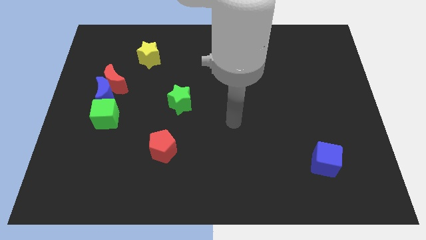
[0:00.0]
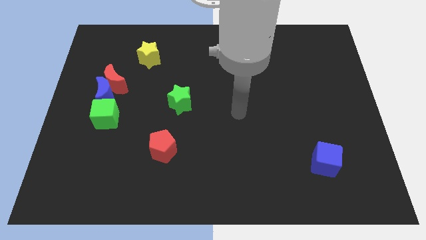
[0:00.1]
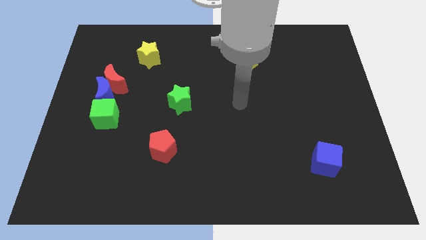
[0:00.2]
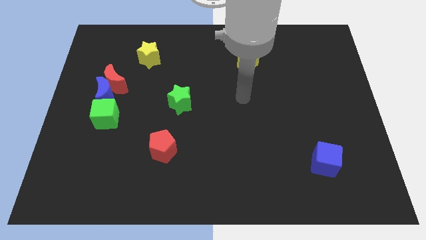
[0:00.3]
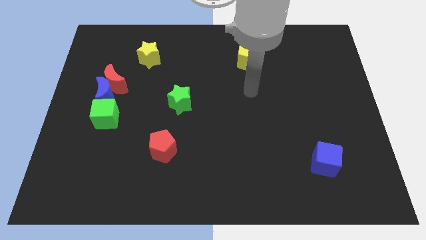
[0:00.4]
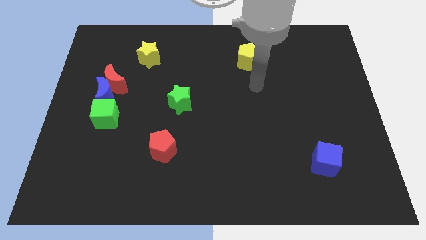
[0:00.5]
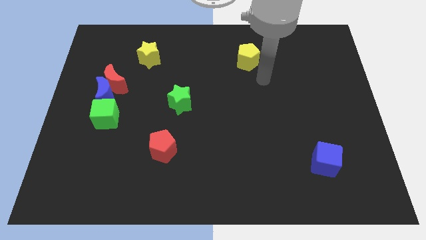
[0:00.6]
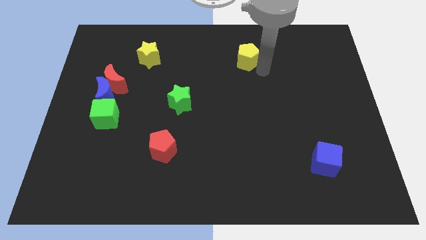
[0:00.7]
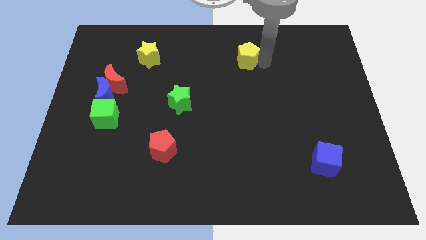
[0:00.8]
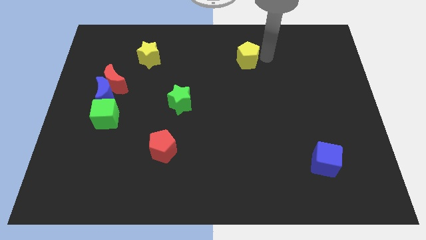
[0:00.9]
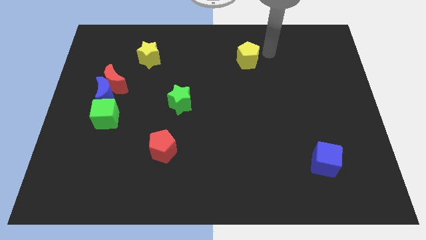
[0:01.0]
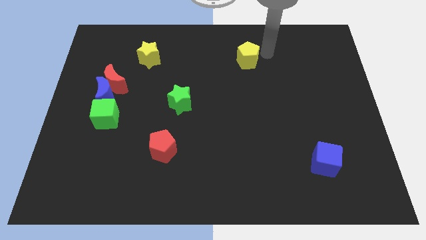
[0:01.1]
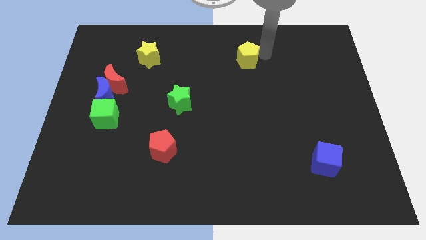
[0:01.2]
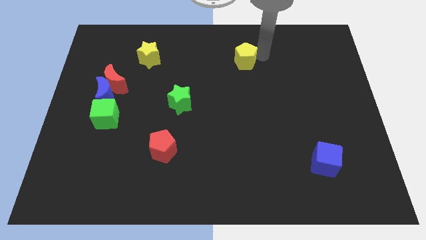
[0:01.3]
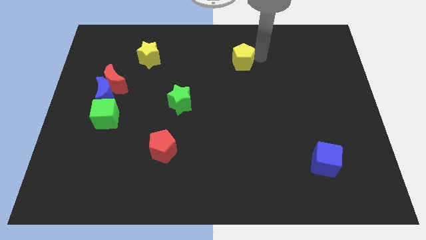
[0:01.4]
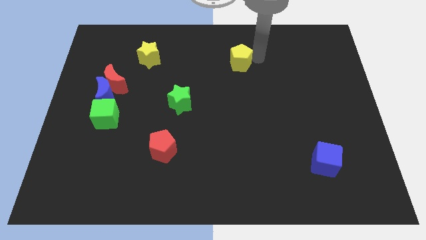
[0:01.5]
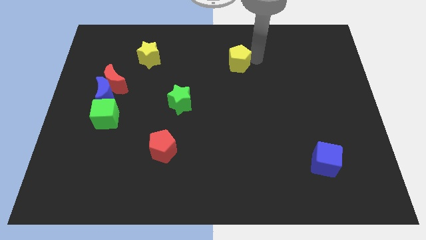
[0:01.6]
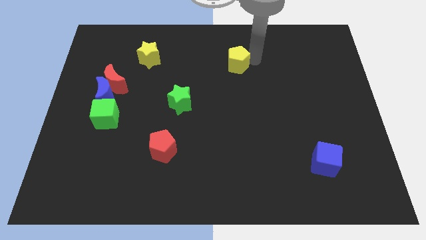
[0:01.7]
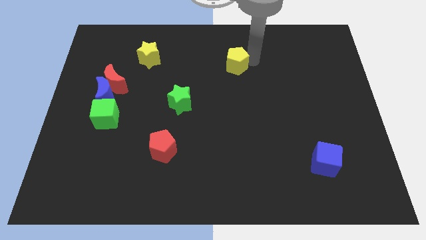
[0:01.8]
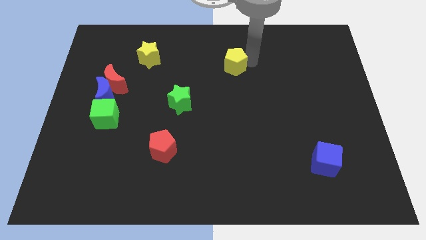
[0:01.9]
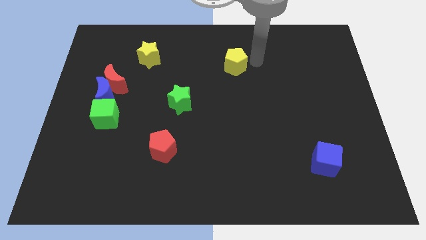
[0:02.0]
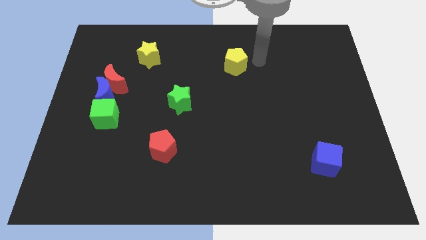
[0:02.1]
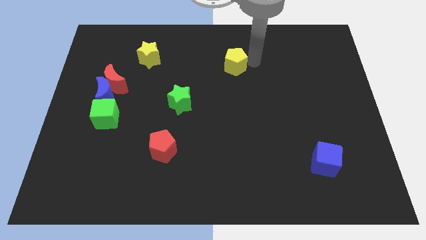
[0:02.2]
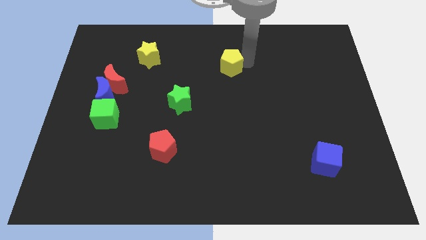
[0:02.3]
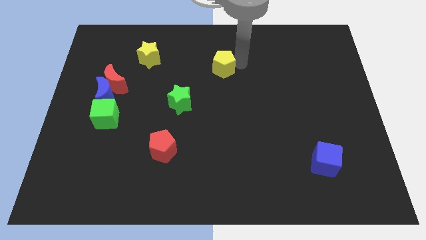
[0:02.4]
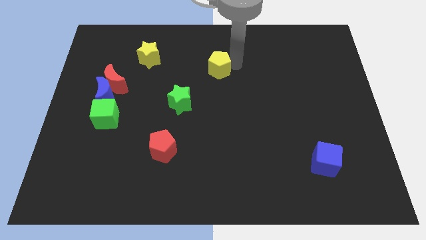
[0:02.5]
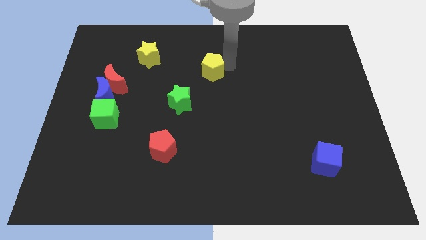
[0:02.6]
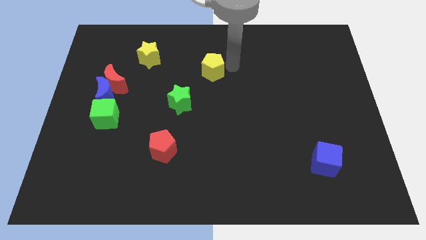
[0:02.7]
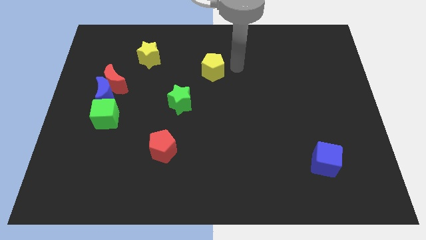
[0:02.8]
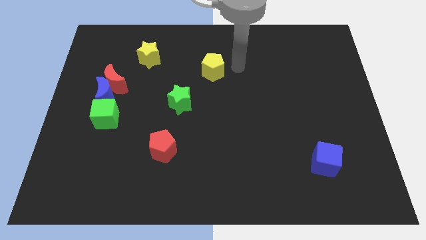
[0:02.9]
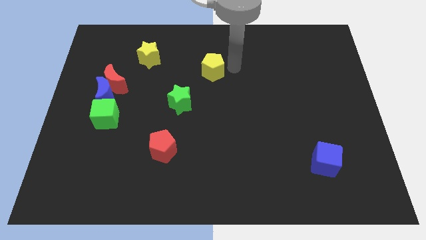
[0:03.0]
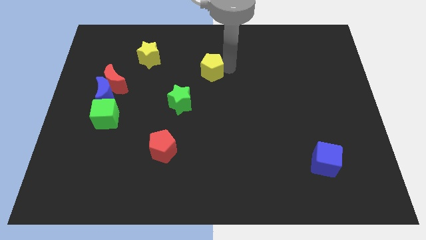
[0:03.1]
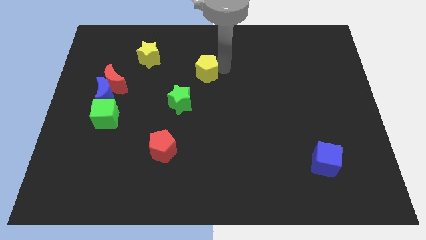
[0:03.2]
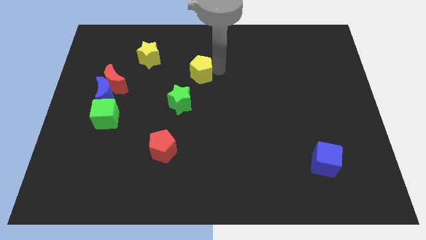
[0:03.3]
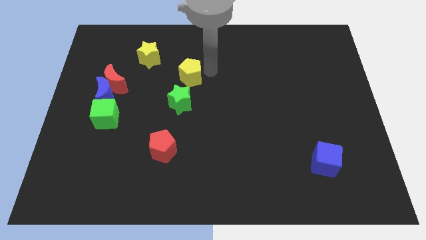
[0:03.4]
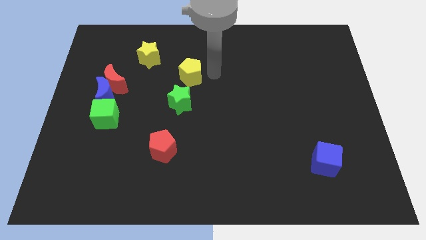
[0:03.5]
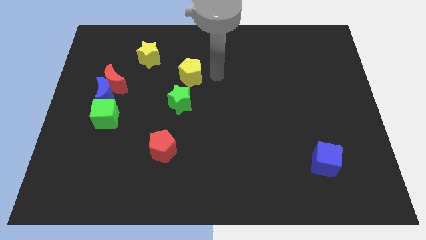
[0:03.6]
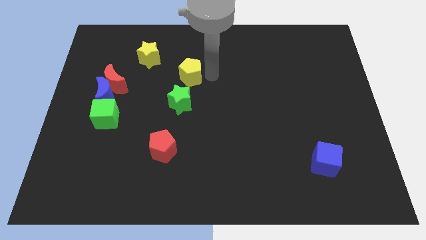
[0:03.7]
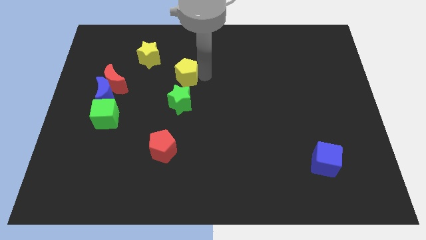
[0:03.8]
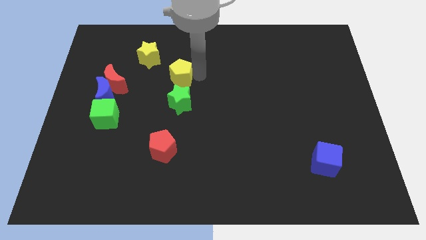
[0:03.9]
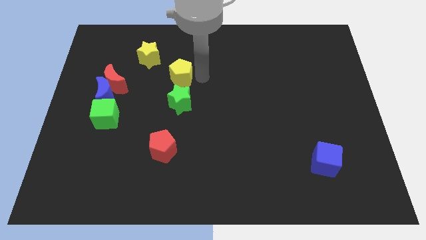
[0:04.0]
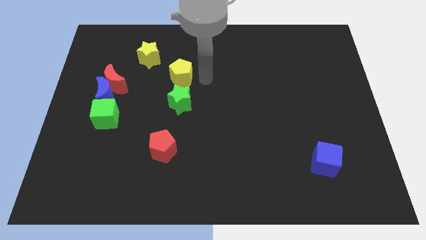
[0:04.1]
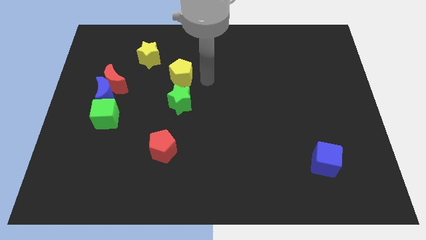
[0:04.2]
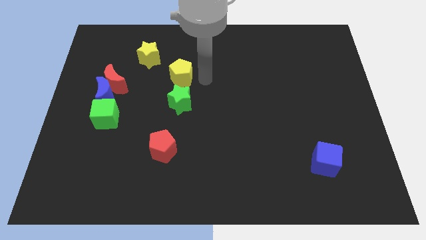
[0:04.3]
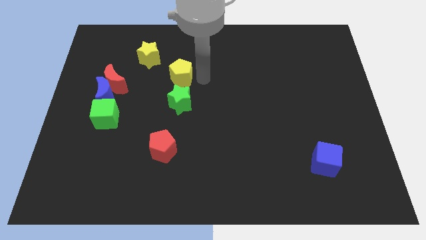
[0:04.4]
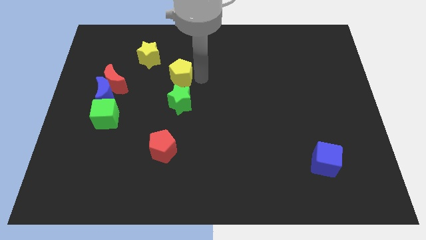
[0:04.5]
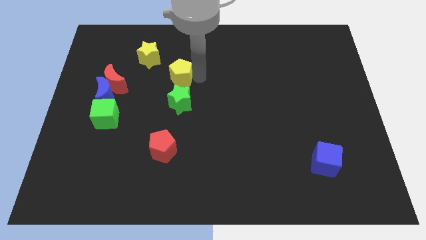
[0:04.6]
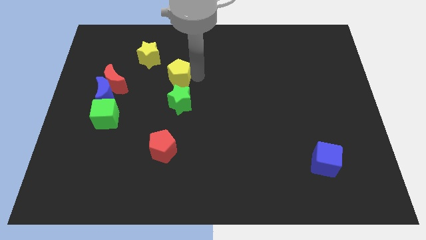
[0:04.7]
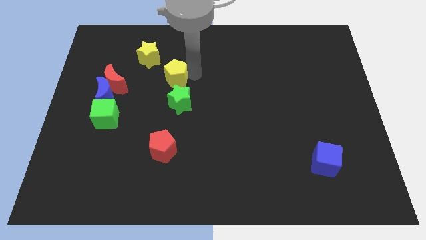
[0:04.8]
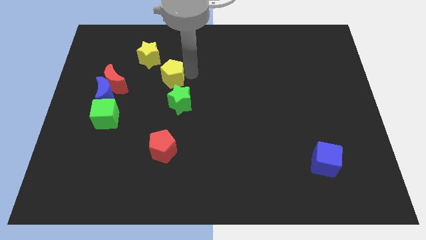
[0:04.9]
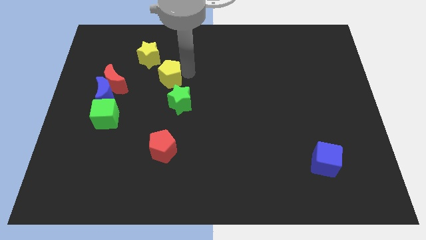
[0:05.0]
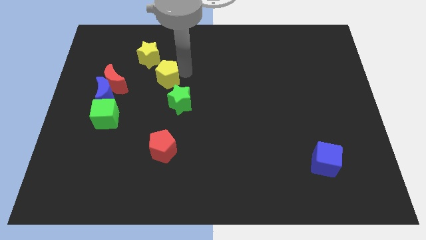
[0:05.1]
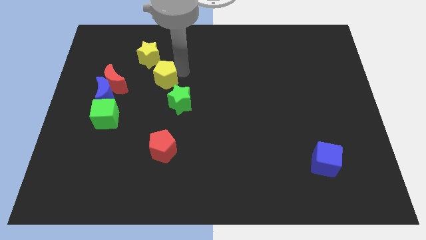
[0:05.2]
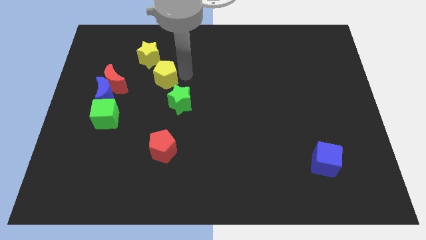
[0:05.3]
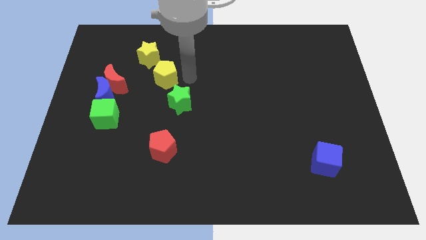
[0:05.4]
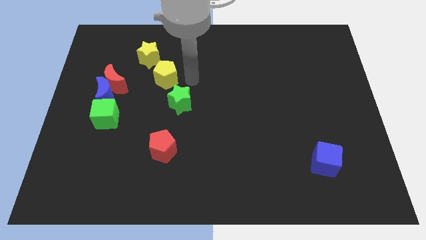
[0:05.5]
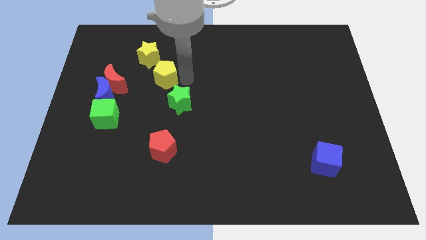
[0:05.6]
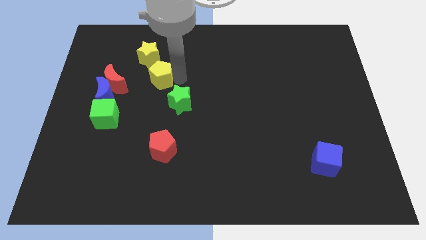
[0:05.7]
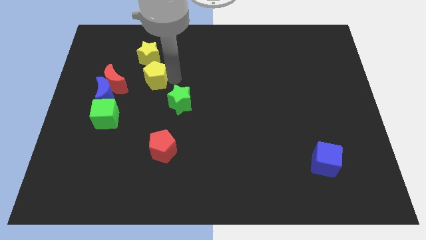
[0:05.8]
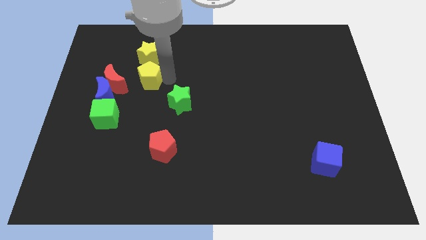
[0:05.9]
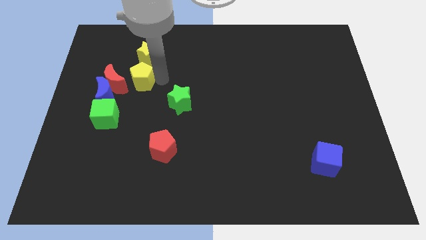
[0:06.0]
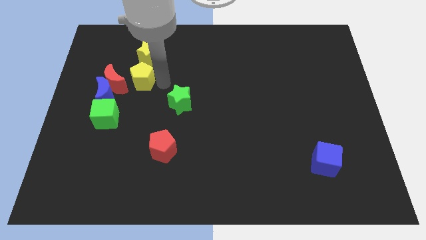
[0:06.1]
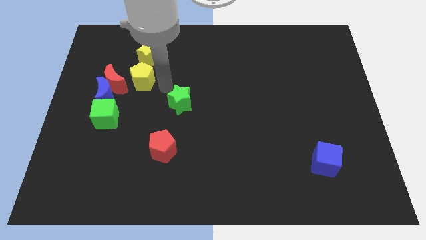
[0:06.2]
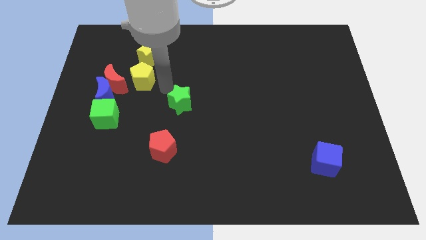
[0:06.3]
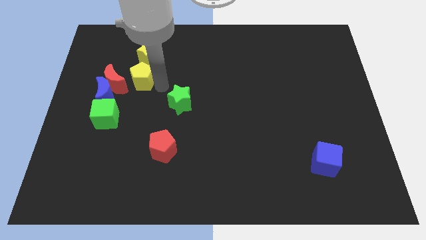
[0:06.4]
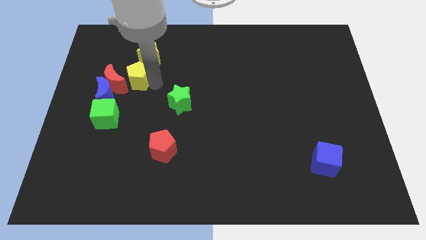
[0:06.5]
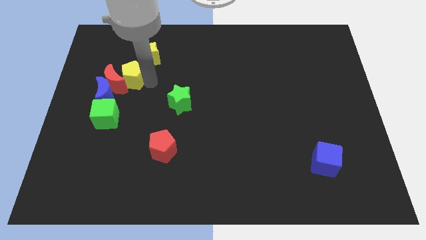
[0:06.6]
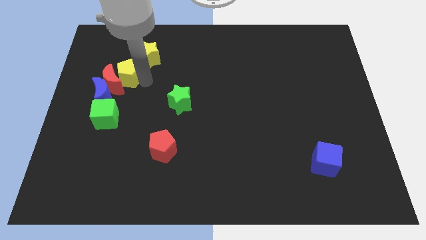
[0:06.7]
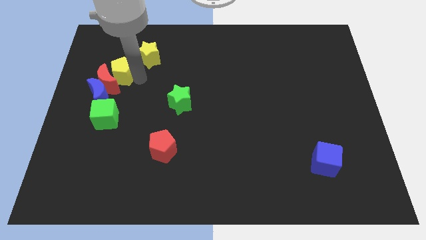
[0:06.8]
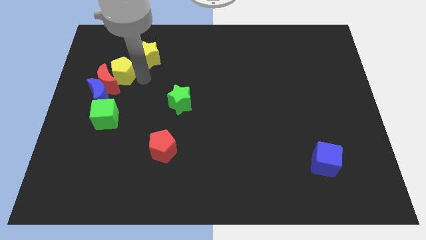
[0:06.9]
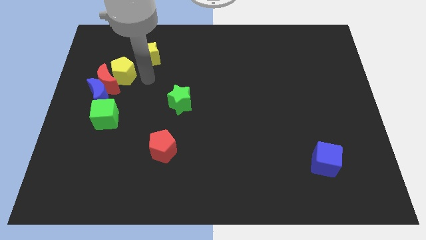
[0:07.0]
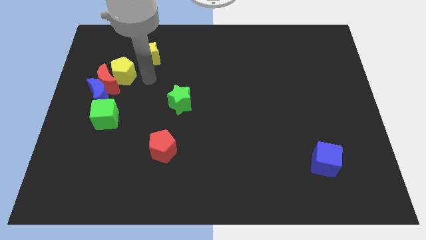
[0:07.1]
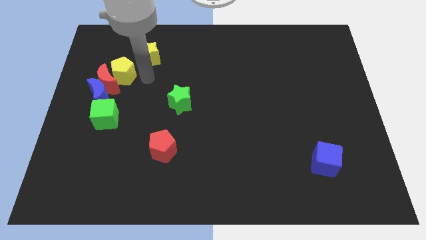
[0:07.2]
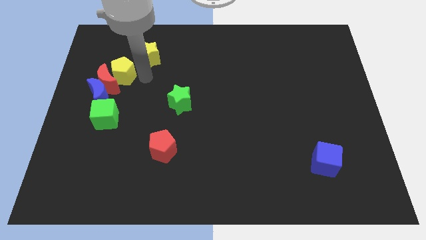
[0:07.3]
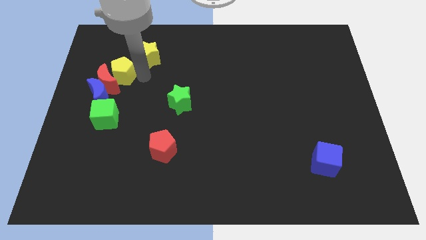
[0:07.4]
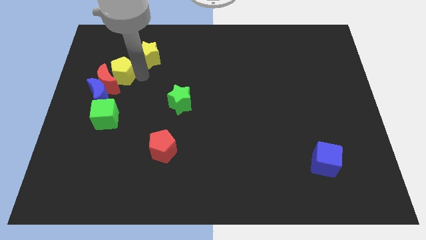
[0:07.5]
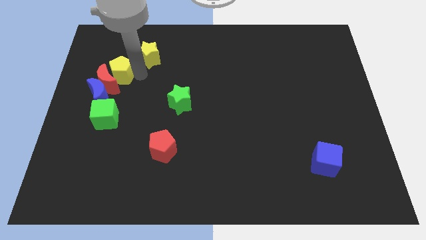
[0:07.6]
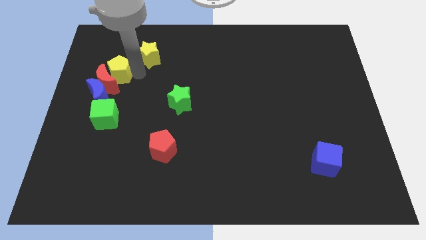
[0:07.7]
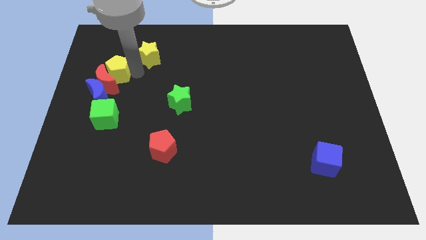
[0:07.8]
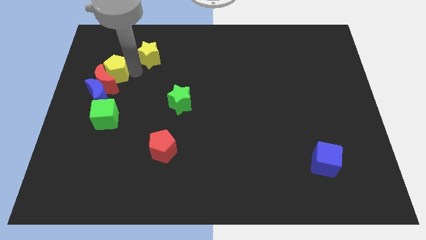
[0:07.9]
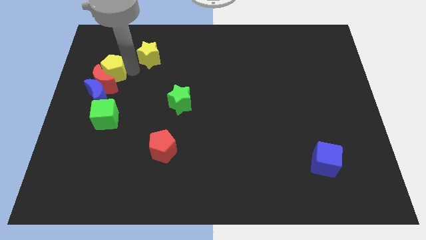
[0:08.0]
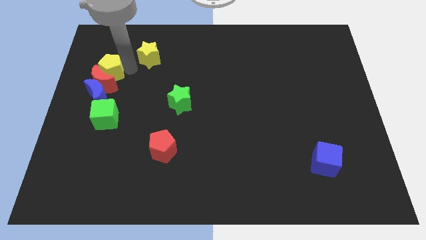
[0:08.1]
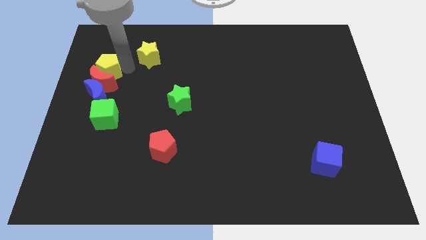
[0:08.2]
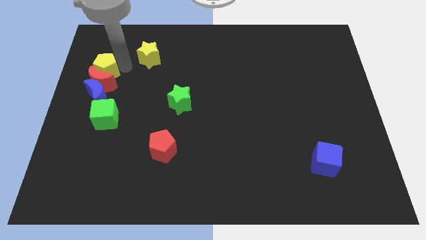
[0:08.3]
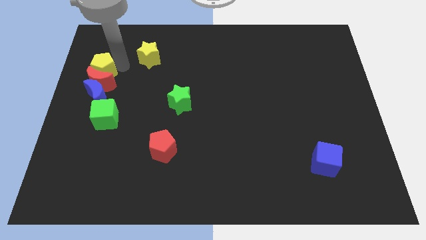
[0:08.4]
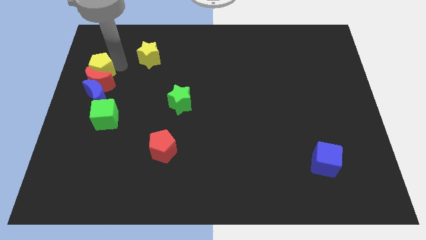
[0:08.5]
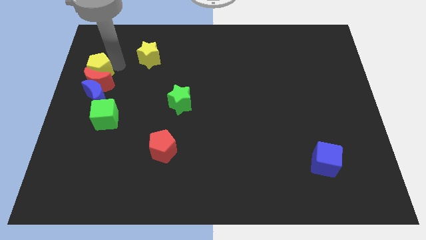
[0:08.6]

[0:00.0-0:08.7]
move the yellow pentagon to the left side of the board
